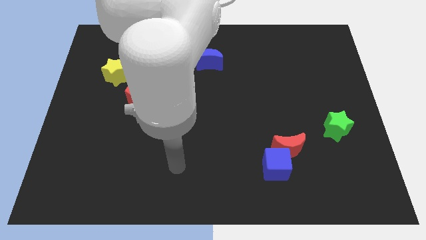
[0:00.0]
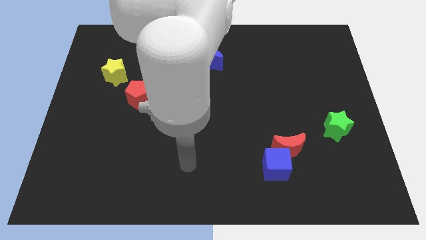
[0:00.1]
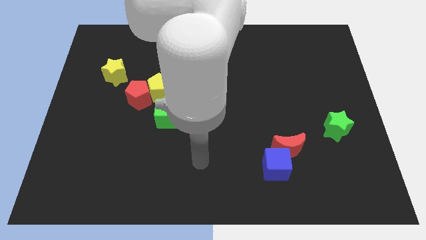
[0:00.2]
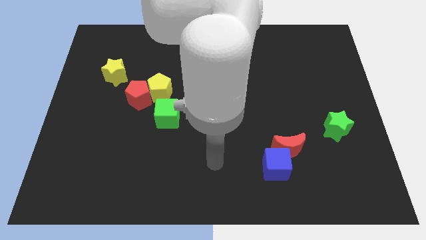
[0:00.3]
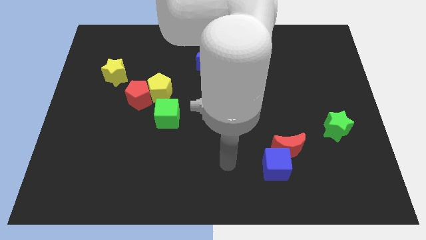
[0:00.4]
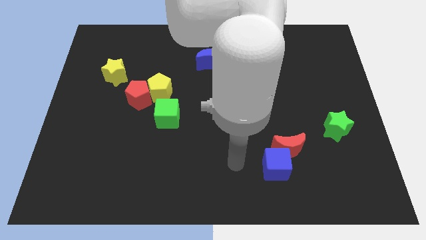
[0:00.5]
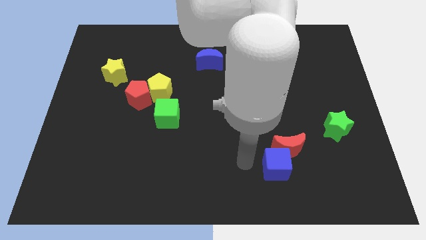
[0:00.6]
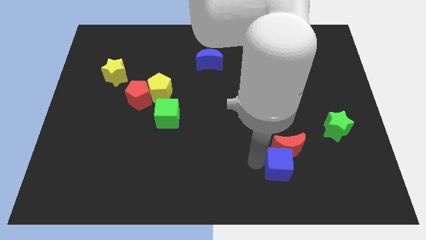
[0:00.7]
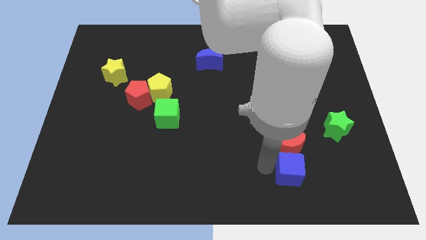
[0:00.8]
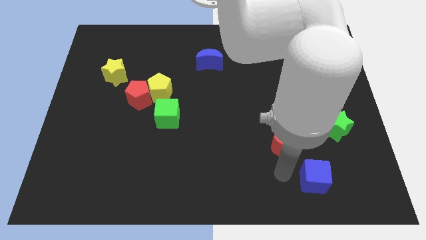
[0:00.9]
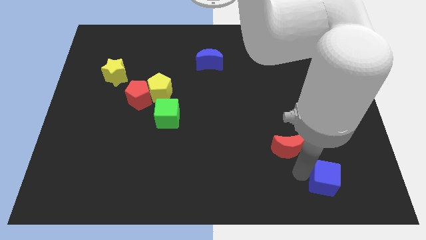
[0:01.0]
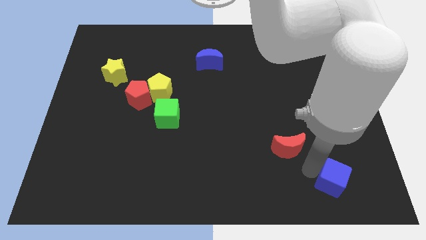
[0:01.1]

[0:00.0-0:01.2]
separate the red moon from the blue cube

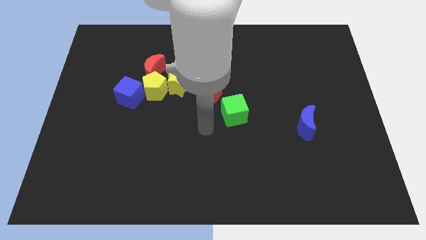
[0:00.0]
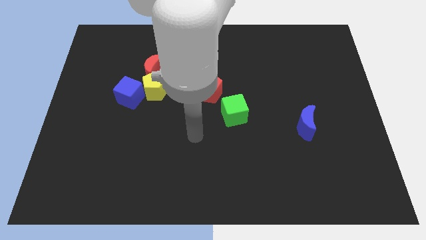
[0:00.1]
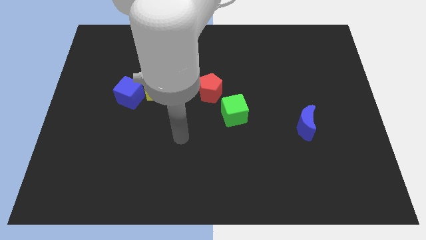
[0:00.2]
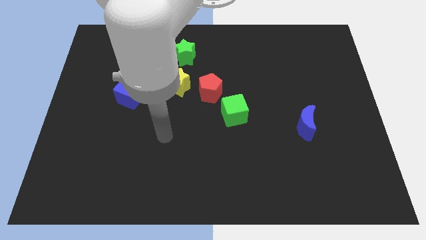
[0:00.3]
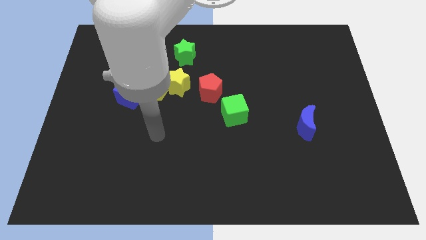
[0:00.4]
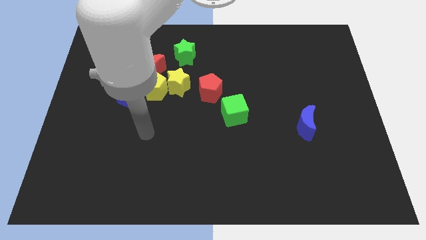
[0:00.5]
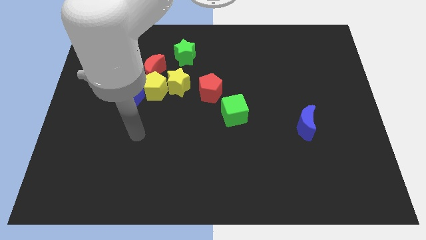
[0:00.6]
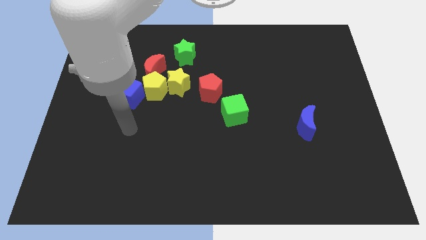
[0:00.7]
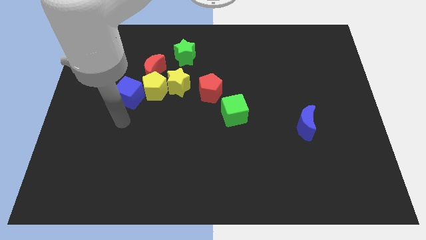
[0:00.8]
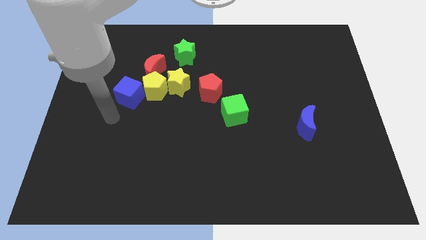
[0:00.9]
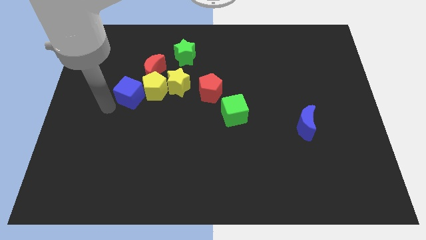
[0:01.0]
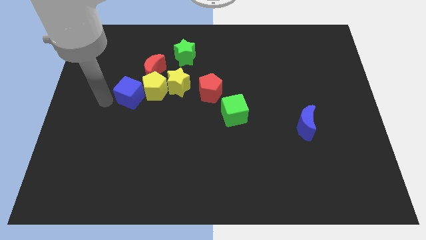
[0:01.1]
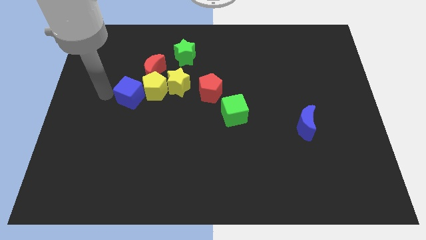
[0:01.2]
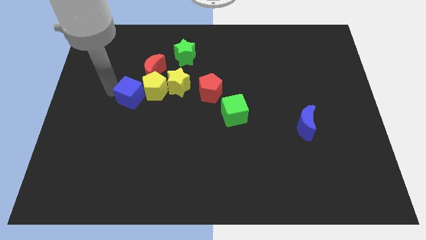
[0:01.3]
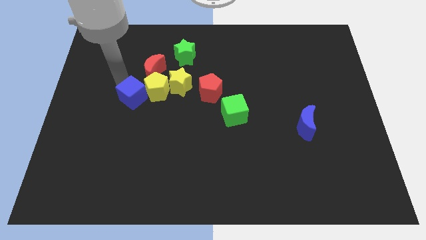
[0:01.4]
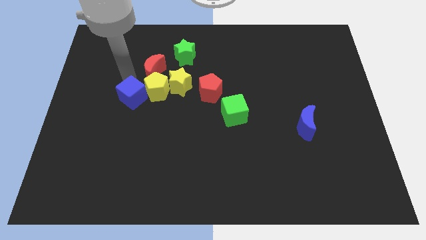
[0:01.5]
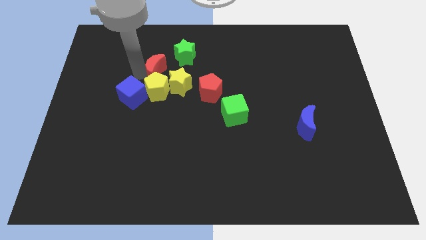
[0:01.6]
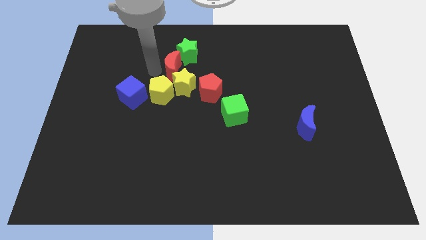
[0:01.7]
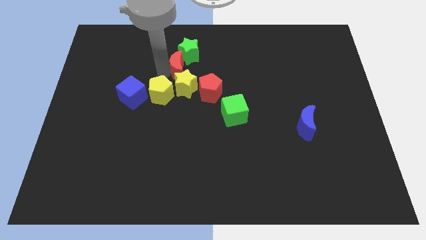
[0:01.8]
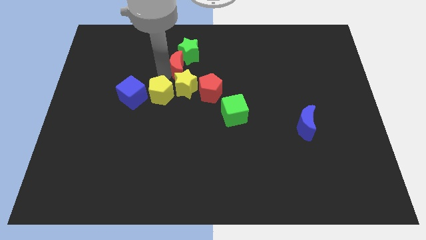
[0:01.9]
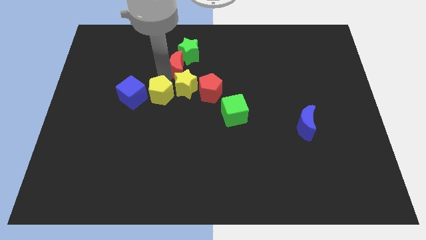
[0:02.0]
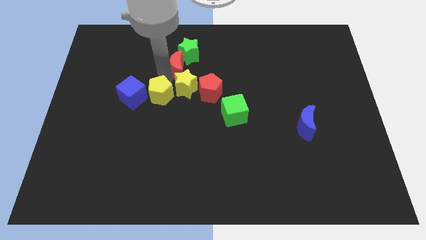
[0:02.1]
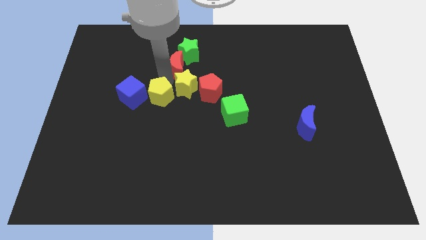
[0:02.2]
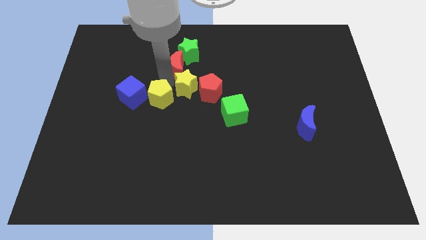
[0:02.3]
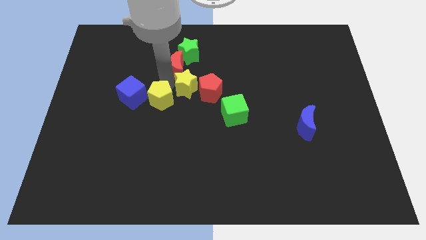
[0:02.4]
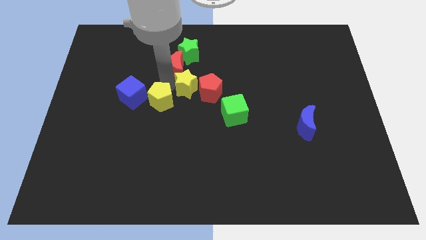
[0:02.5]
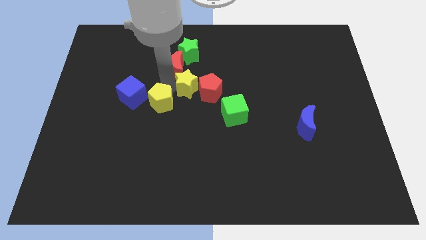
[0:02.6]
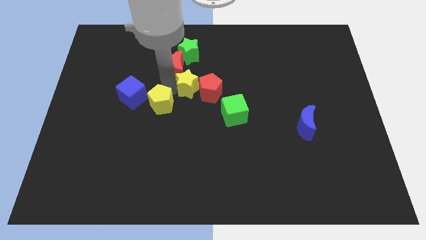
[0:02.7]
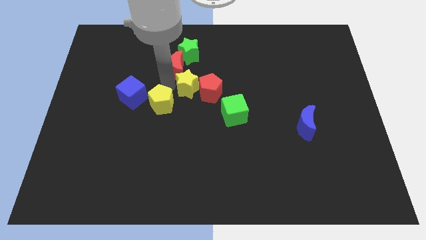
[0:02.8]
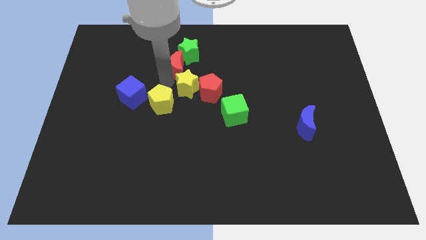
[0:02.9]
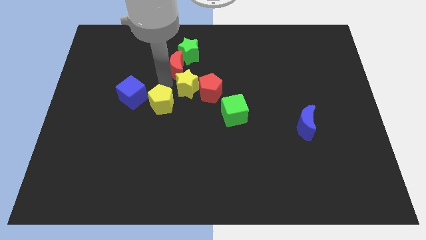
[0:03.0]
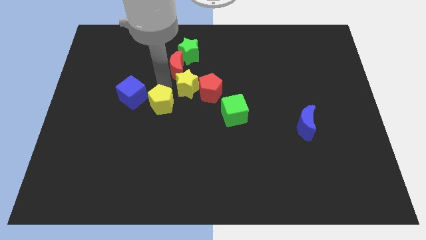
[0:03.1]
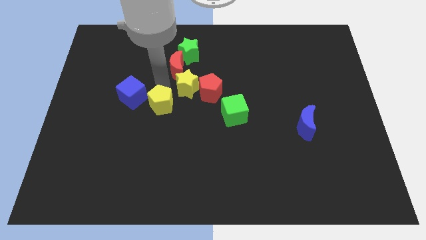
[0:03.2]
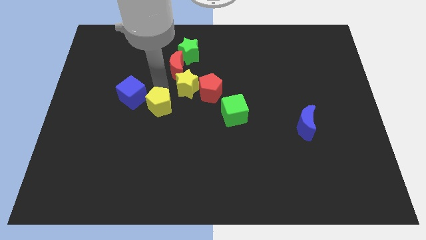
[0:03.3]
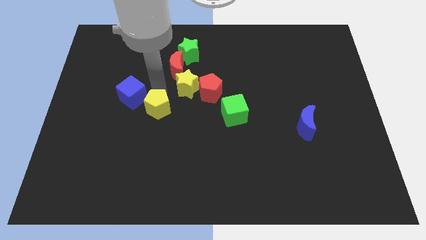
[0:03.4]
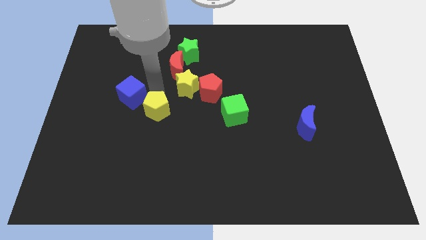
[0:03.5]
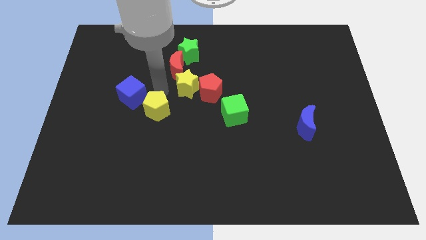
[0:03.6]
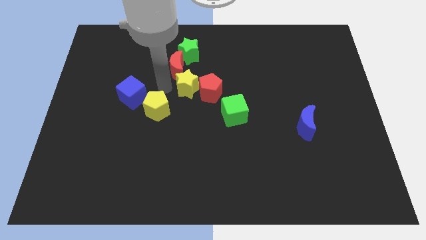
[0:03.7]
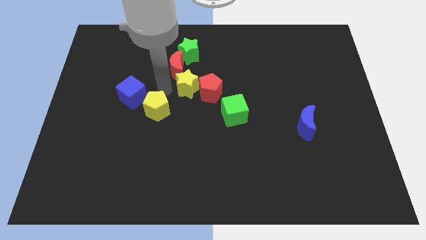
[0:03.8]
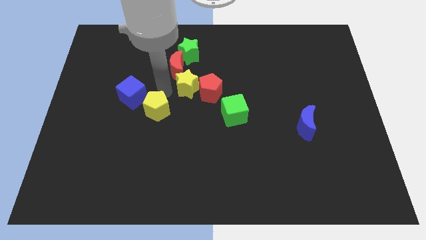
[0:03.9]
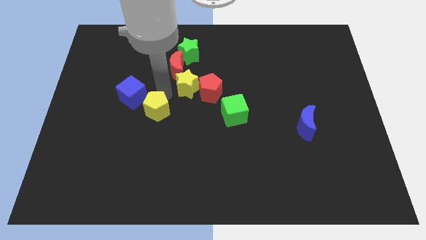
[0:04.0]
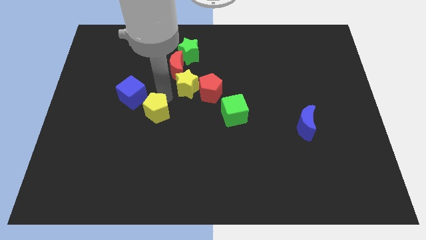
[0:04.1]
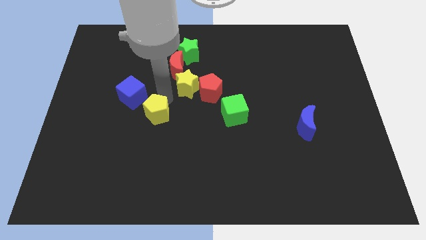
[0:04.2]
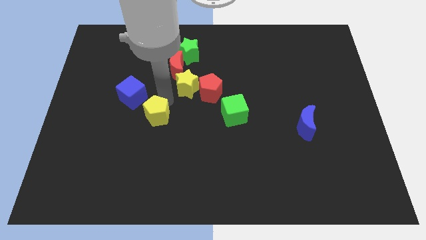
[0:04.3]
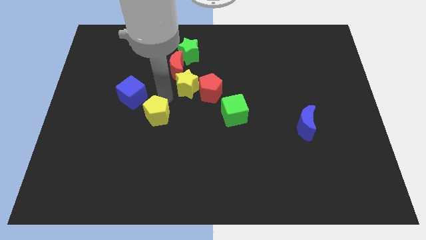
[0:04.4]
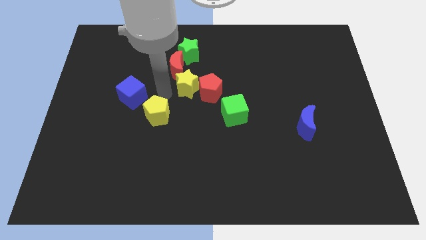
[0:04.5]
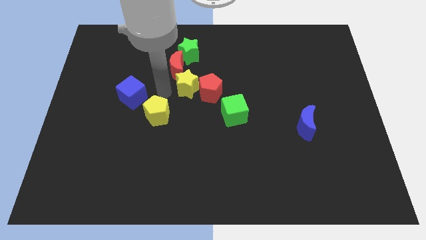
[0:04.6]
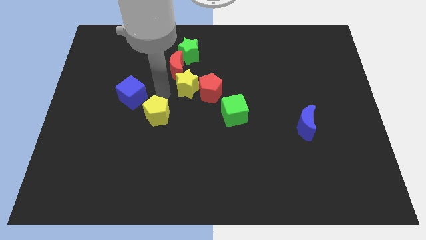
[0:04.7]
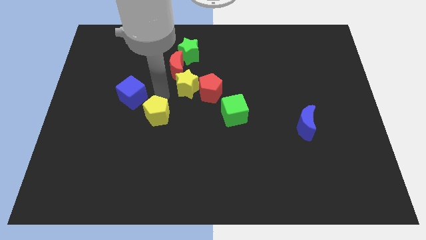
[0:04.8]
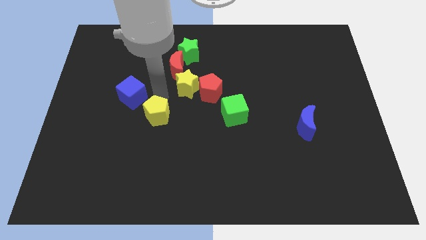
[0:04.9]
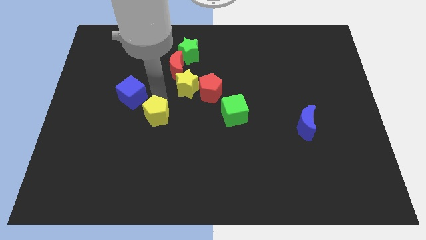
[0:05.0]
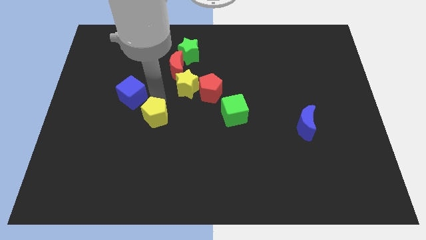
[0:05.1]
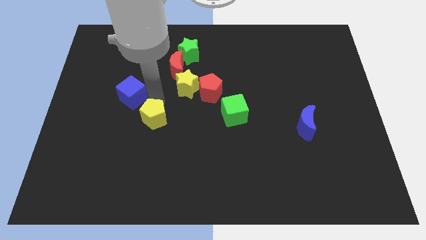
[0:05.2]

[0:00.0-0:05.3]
pull the yellow pentagon apart from the group

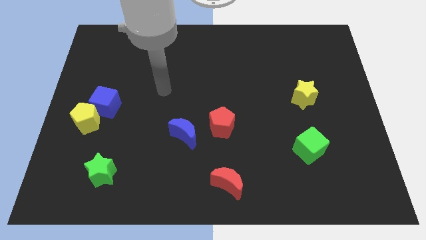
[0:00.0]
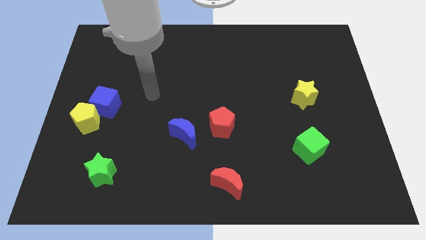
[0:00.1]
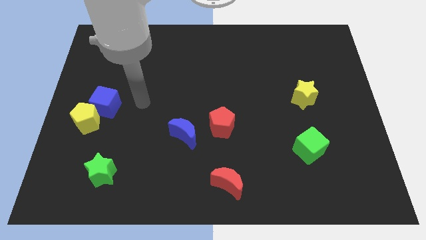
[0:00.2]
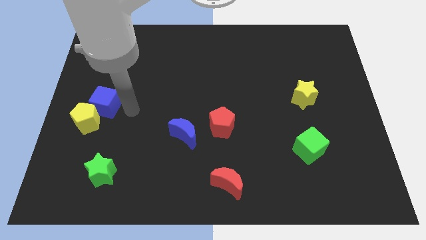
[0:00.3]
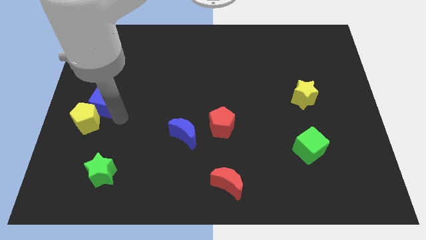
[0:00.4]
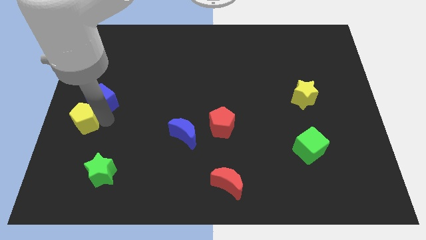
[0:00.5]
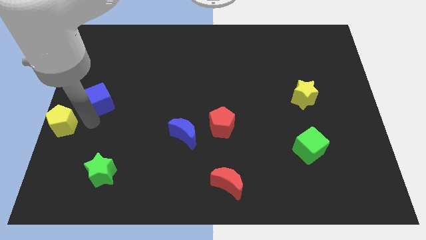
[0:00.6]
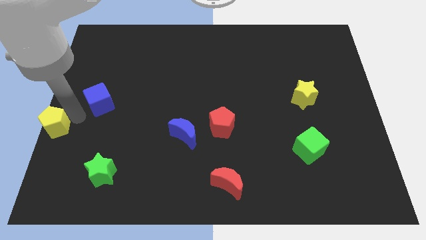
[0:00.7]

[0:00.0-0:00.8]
separate the blue cube from the yellow pentagon

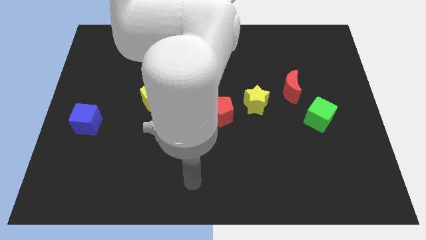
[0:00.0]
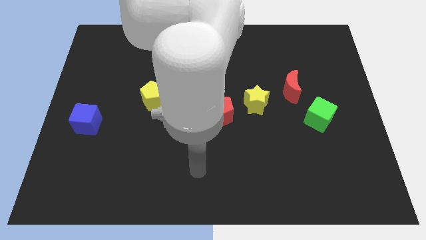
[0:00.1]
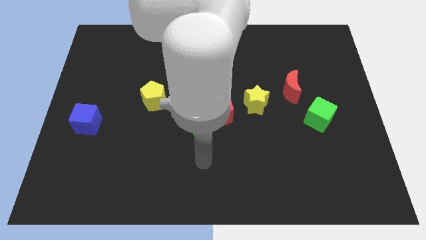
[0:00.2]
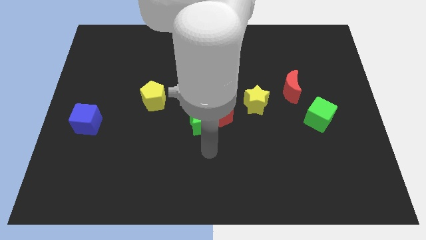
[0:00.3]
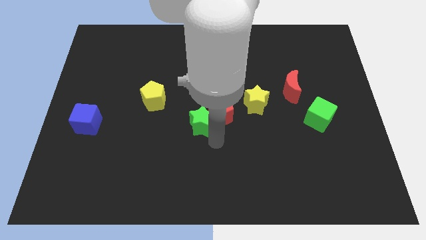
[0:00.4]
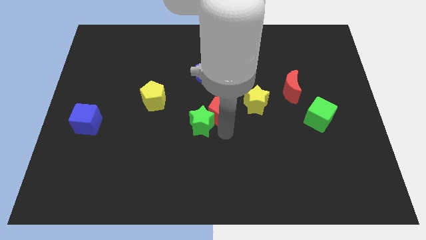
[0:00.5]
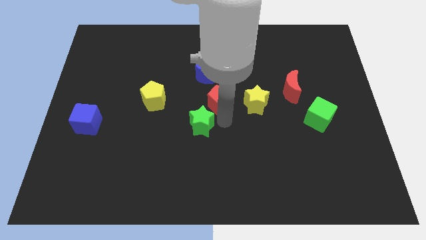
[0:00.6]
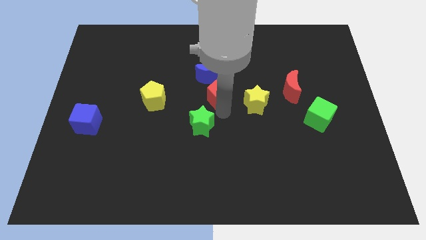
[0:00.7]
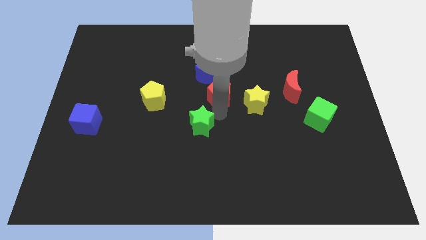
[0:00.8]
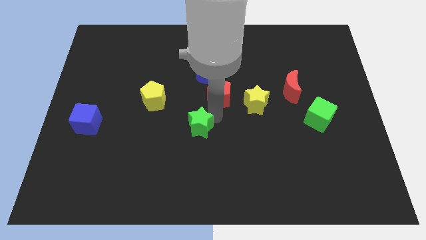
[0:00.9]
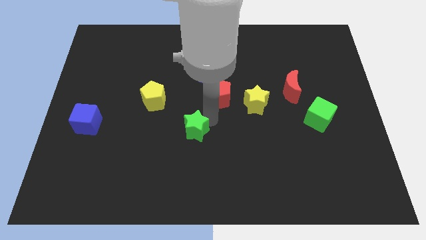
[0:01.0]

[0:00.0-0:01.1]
separate the green star from the red pentagon

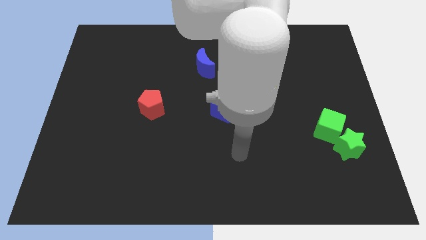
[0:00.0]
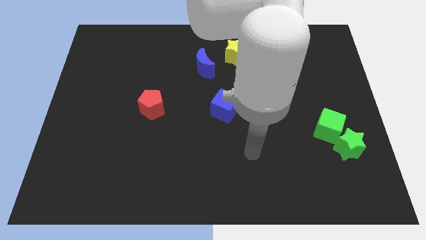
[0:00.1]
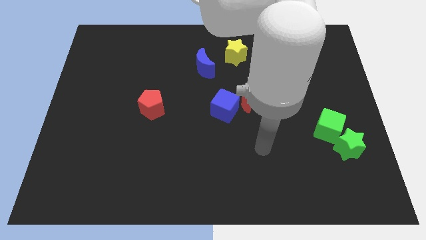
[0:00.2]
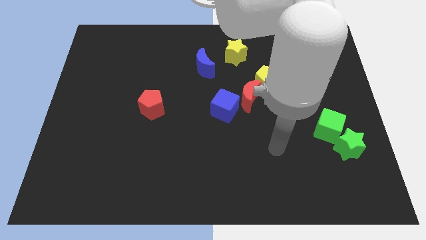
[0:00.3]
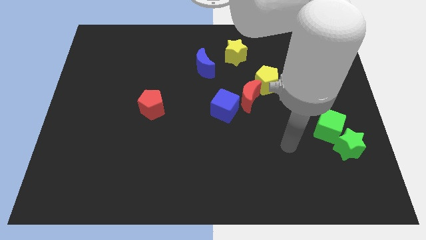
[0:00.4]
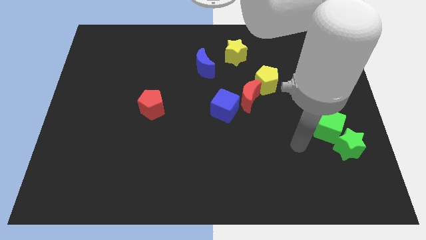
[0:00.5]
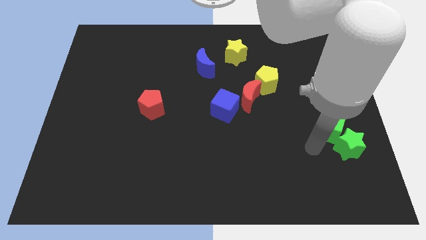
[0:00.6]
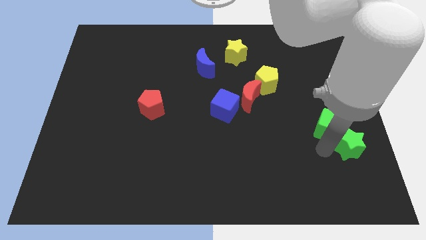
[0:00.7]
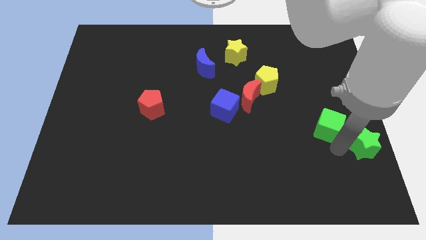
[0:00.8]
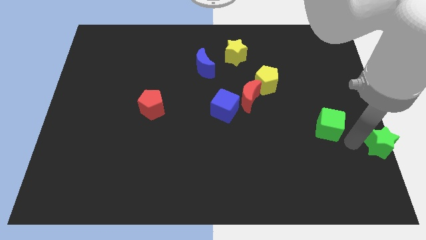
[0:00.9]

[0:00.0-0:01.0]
pull the green cube apart from the green star

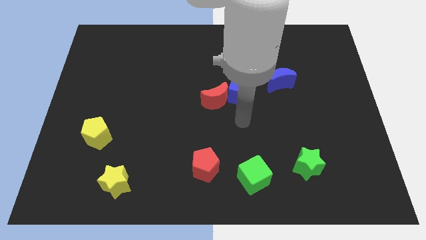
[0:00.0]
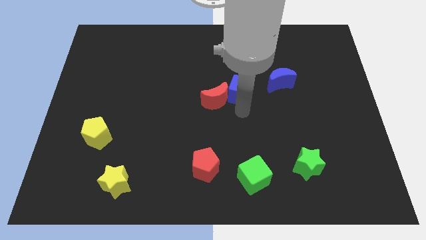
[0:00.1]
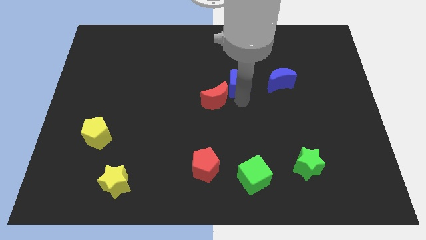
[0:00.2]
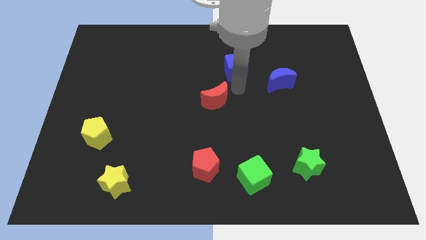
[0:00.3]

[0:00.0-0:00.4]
move the red moon away from the blue cube